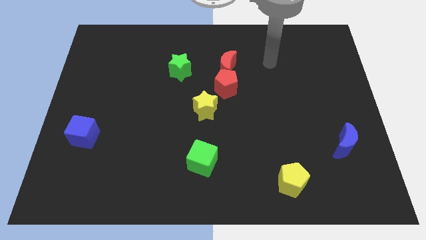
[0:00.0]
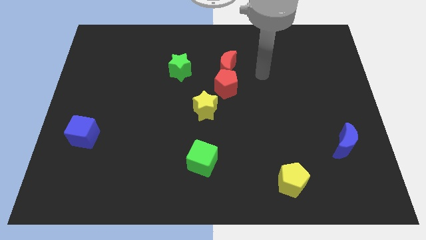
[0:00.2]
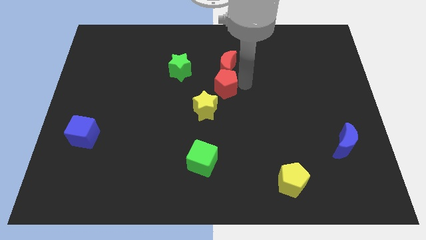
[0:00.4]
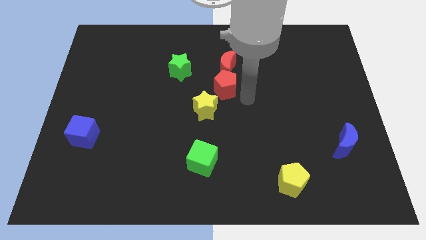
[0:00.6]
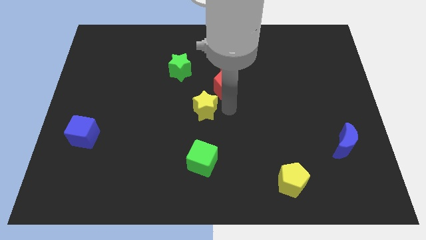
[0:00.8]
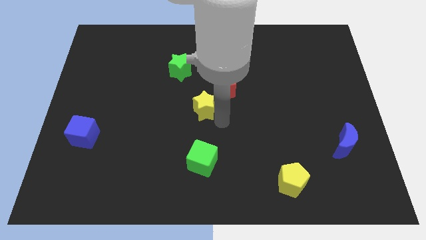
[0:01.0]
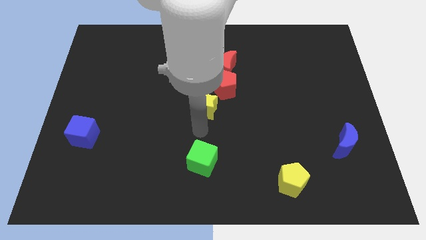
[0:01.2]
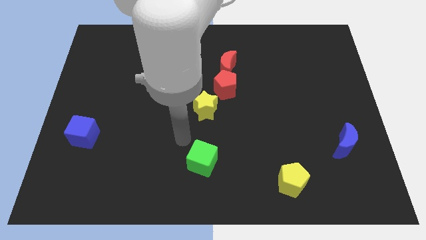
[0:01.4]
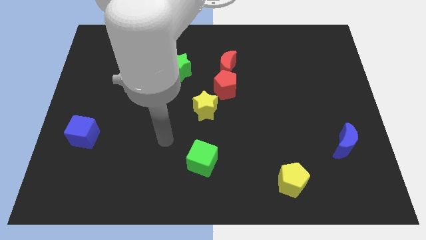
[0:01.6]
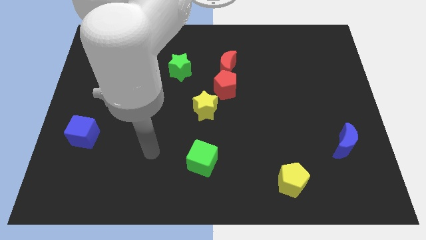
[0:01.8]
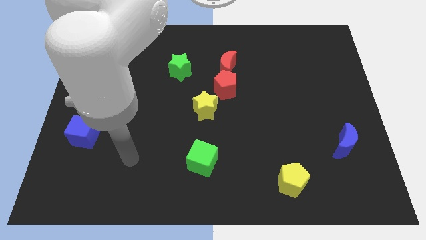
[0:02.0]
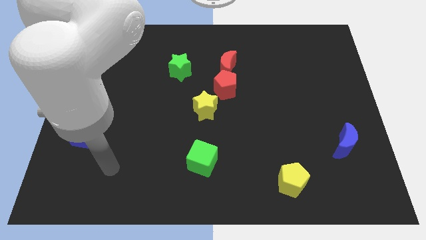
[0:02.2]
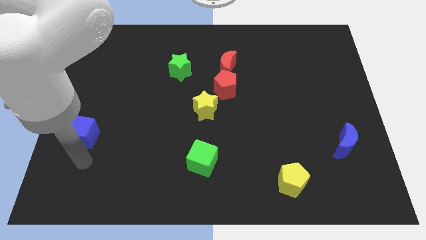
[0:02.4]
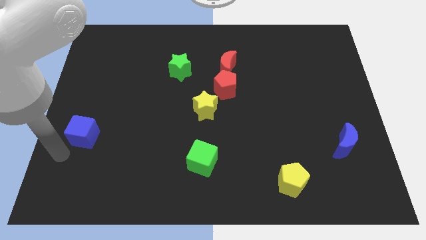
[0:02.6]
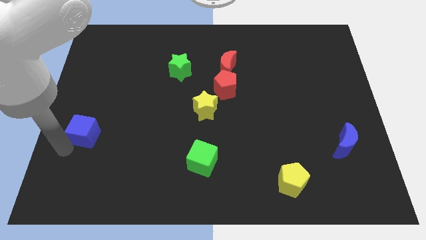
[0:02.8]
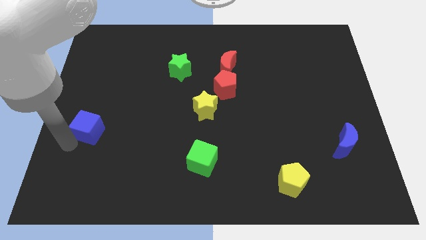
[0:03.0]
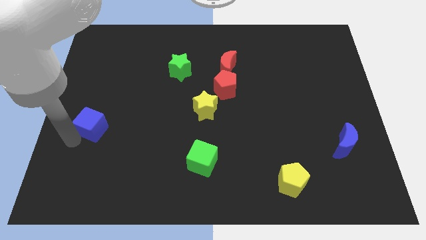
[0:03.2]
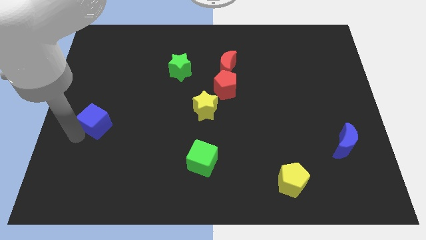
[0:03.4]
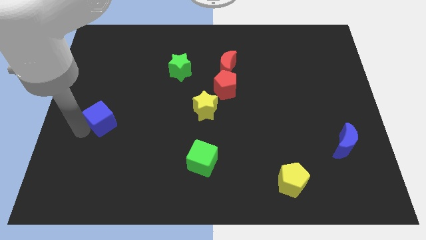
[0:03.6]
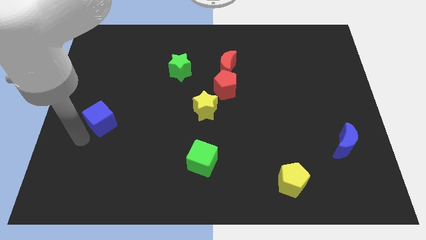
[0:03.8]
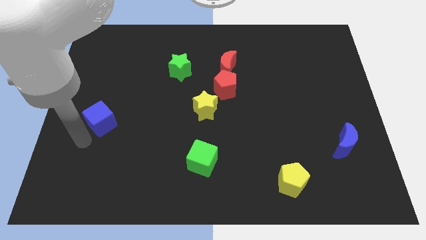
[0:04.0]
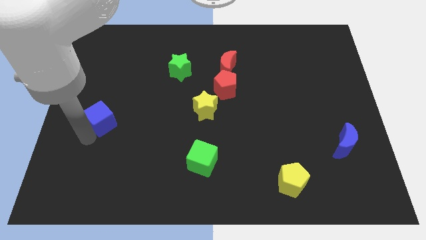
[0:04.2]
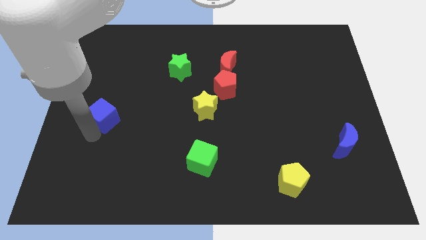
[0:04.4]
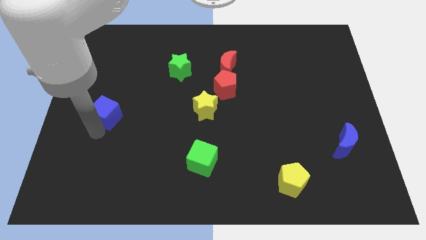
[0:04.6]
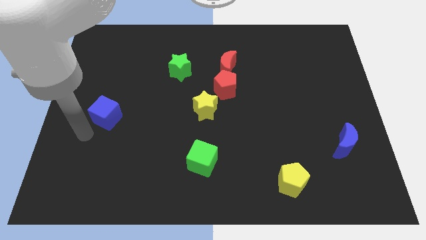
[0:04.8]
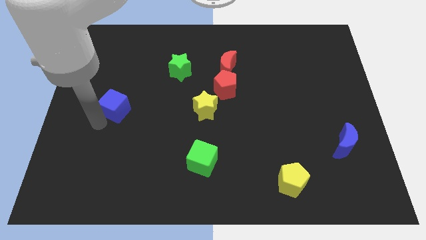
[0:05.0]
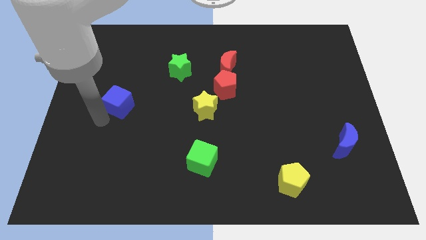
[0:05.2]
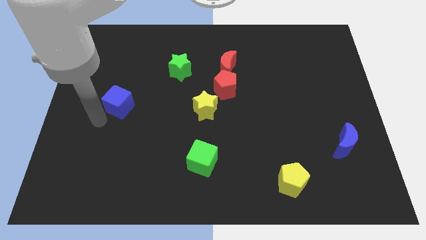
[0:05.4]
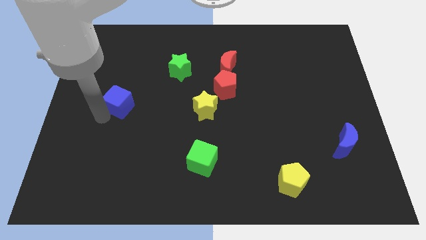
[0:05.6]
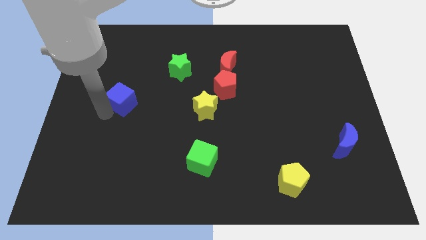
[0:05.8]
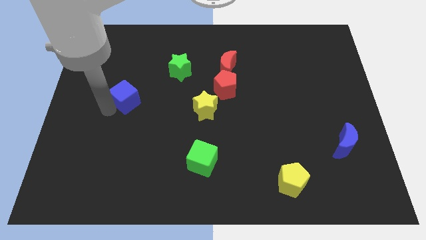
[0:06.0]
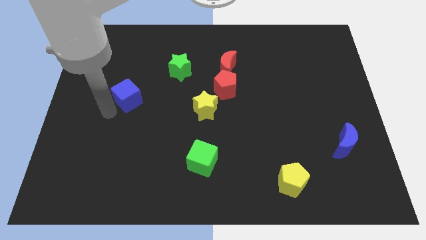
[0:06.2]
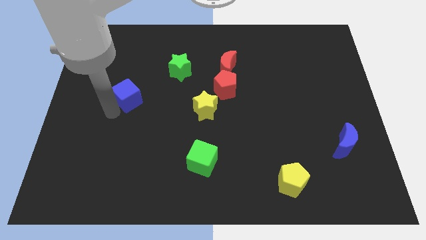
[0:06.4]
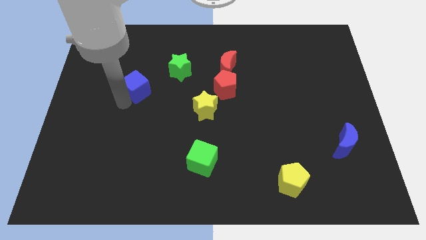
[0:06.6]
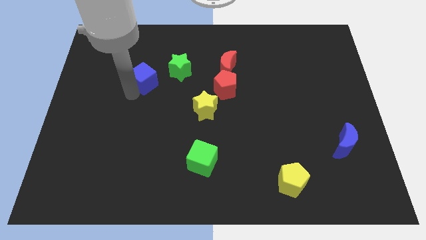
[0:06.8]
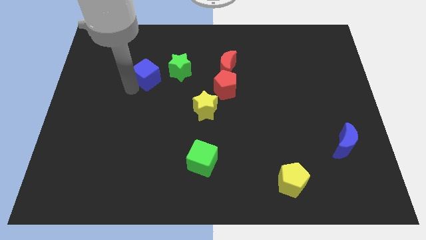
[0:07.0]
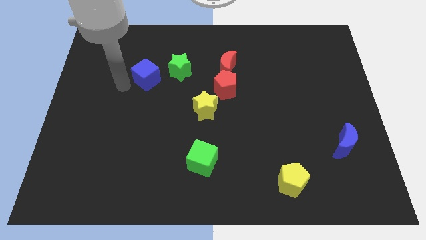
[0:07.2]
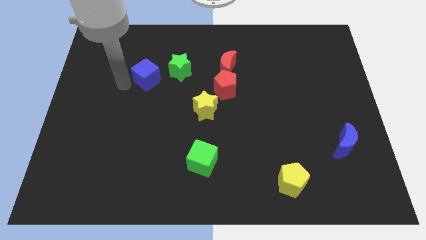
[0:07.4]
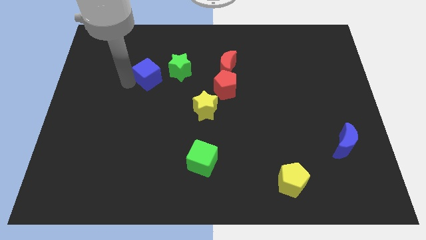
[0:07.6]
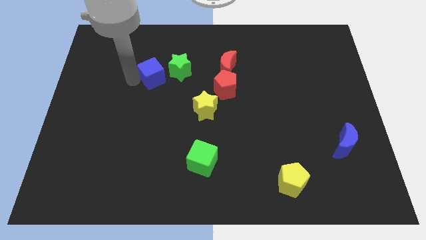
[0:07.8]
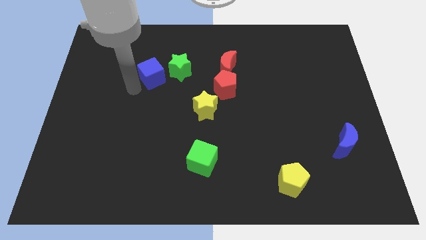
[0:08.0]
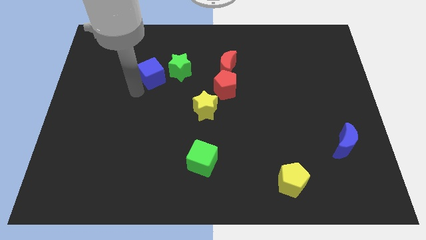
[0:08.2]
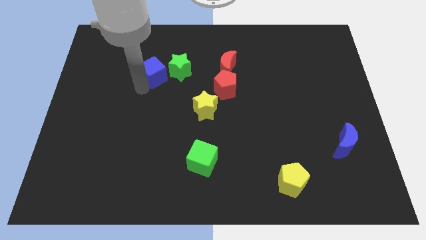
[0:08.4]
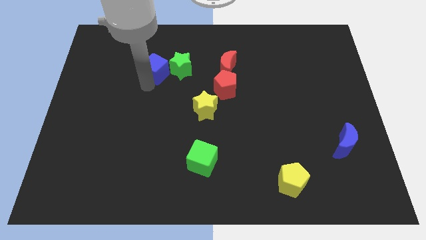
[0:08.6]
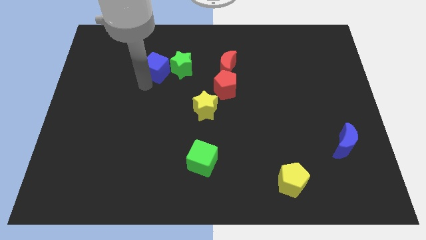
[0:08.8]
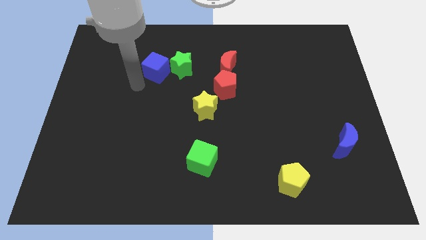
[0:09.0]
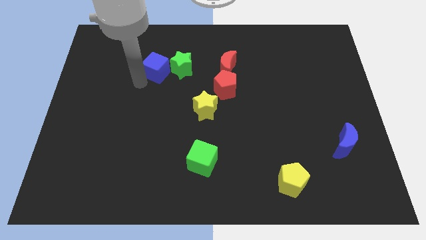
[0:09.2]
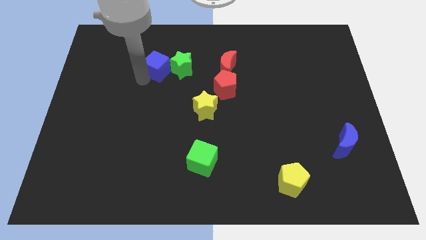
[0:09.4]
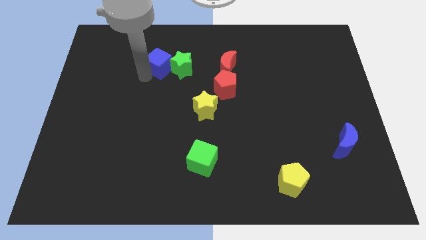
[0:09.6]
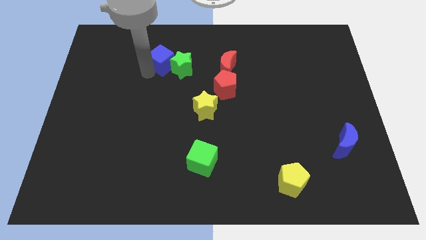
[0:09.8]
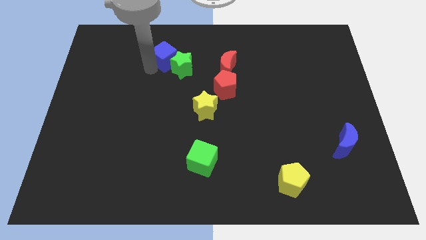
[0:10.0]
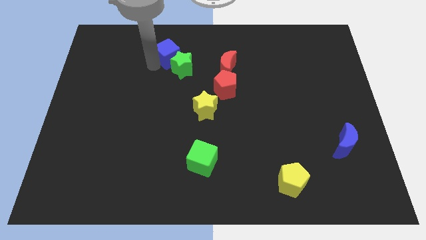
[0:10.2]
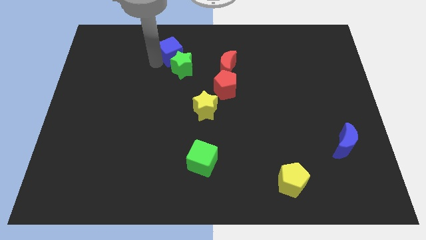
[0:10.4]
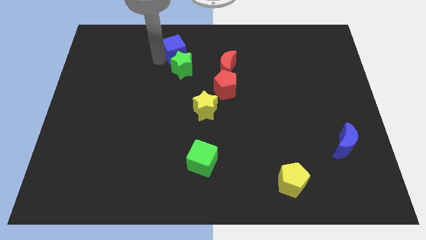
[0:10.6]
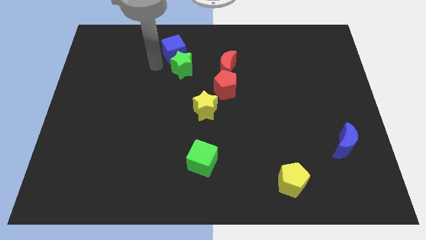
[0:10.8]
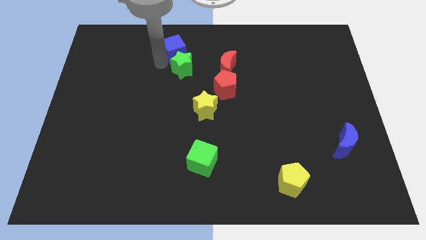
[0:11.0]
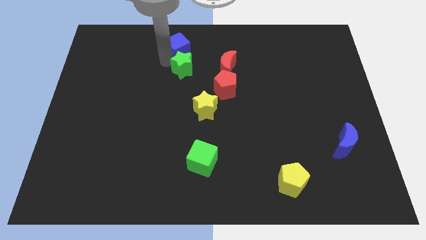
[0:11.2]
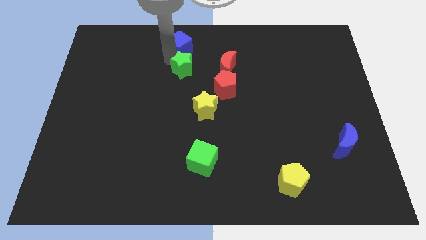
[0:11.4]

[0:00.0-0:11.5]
push the blue cube to the top

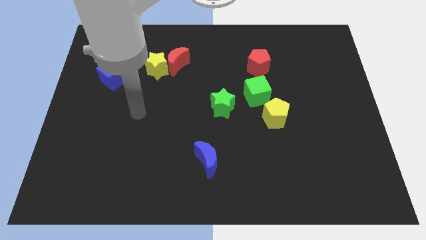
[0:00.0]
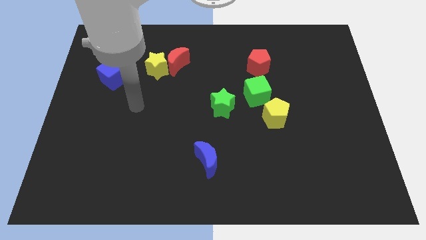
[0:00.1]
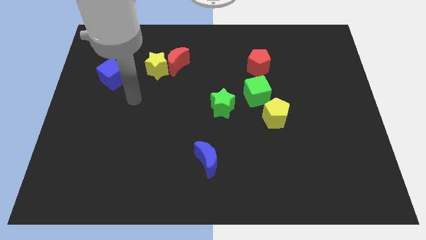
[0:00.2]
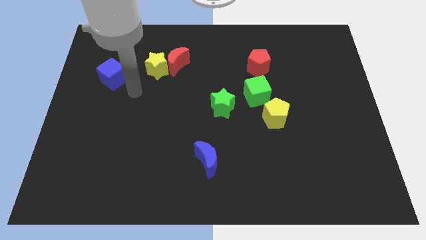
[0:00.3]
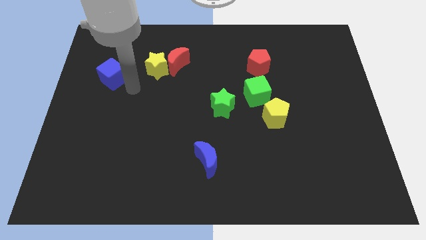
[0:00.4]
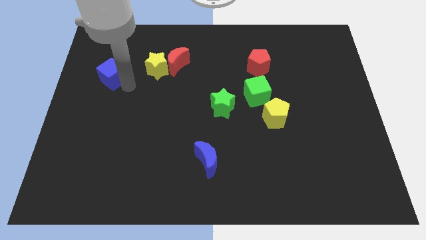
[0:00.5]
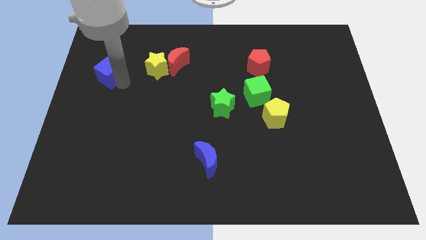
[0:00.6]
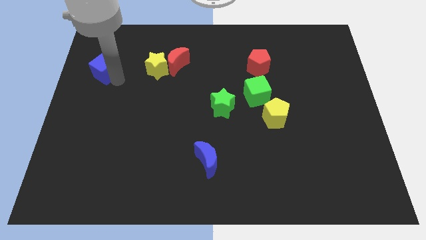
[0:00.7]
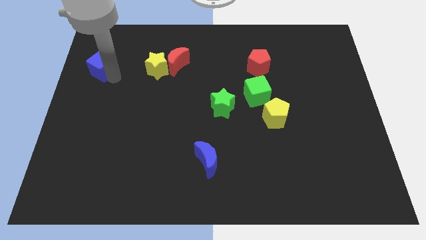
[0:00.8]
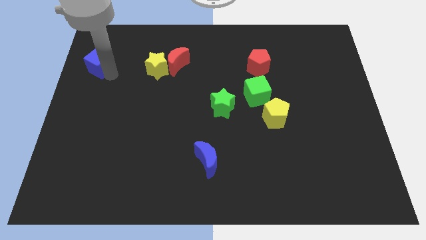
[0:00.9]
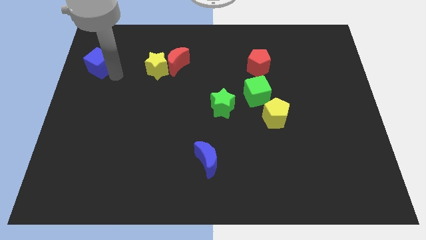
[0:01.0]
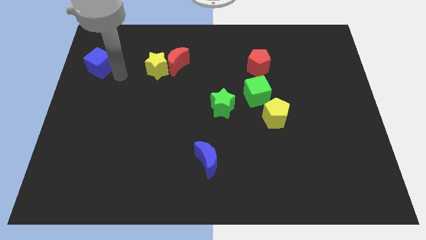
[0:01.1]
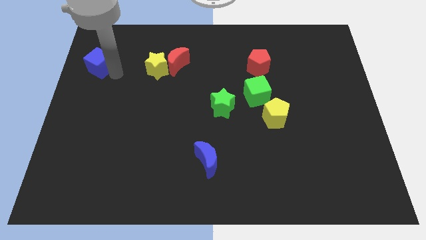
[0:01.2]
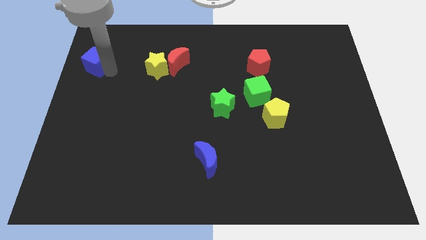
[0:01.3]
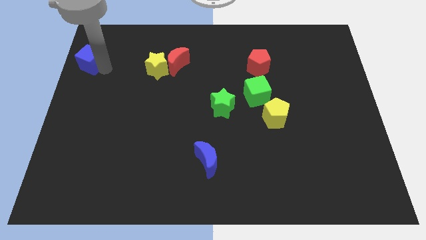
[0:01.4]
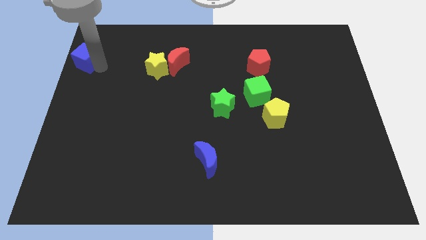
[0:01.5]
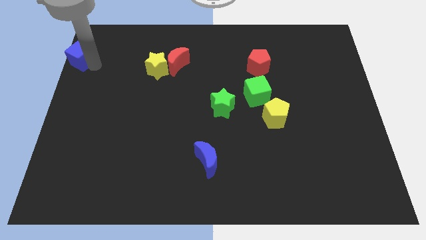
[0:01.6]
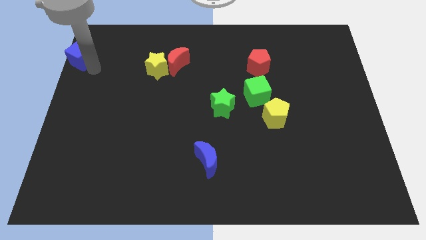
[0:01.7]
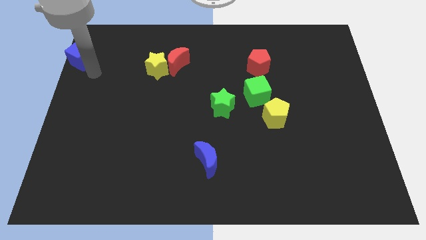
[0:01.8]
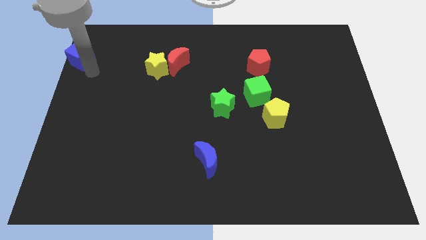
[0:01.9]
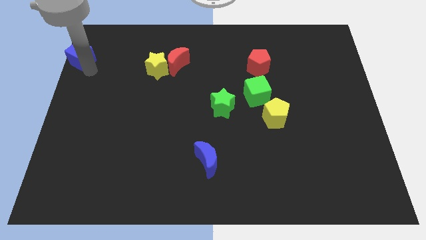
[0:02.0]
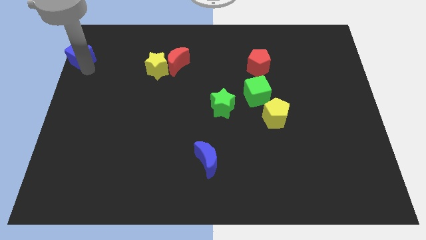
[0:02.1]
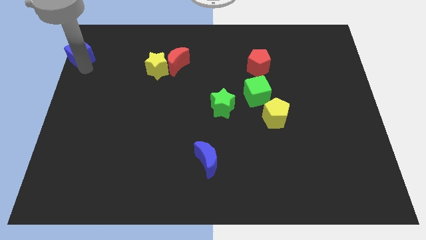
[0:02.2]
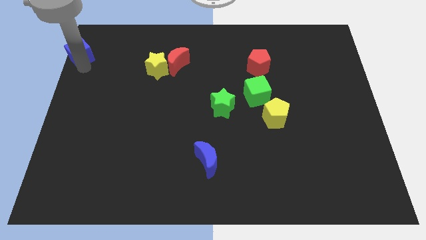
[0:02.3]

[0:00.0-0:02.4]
put the blue cube to the upper left corner
